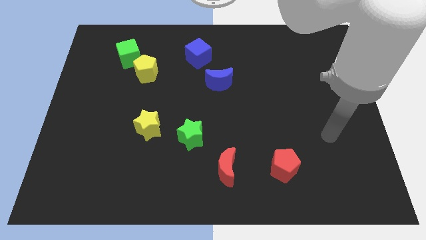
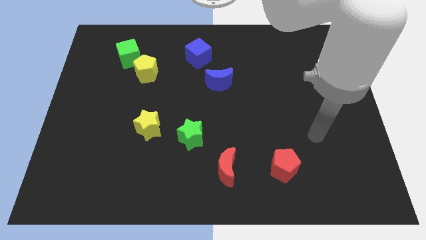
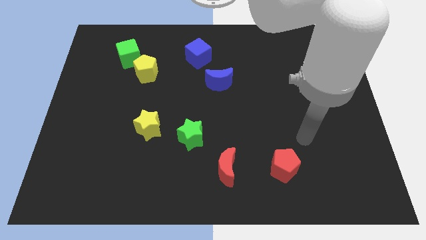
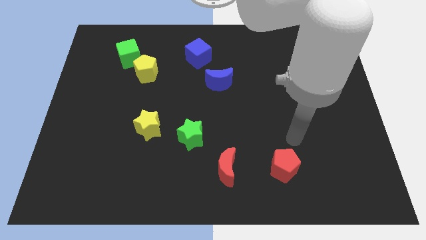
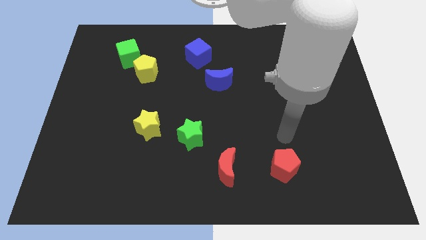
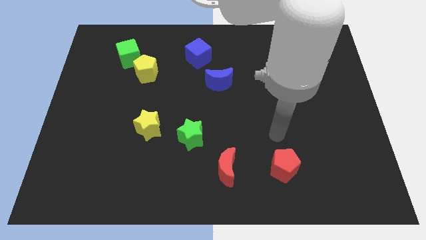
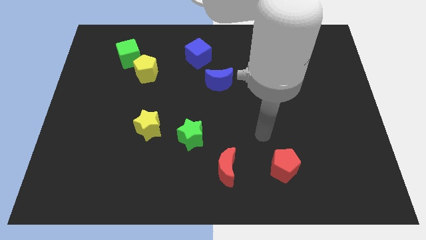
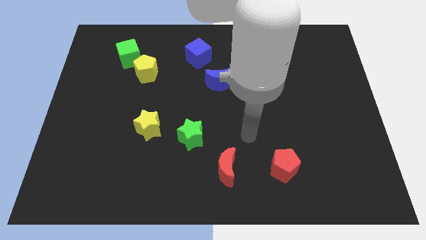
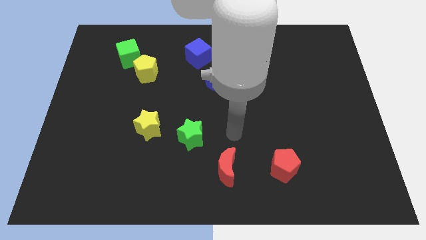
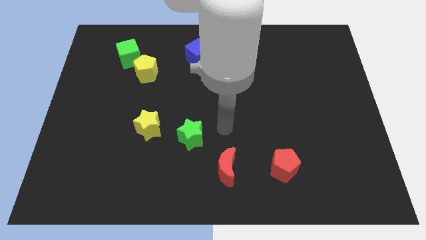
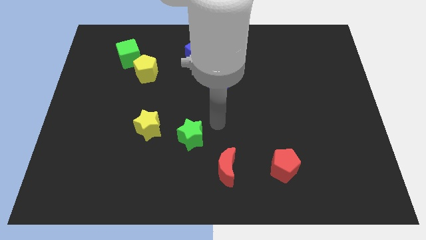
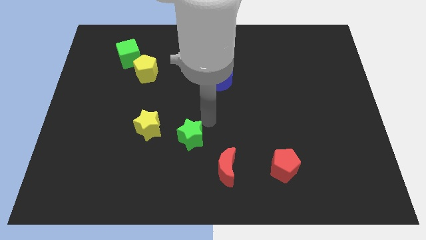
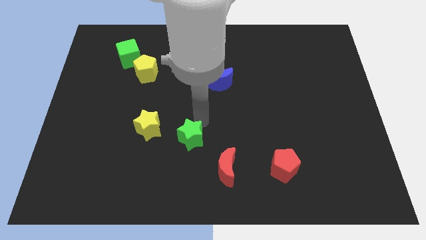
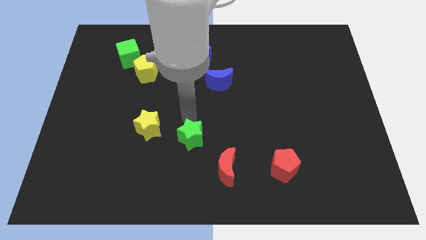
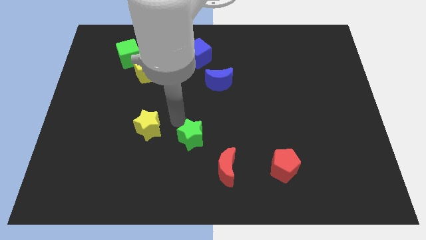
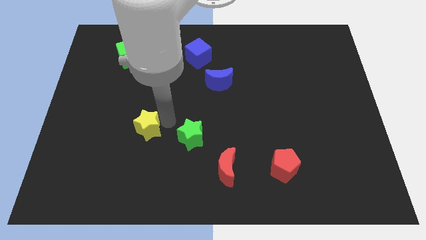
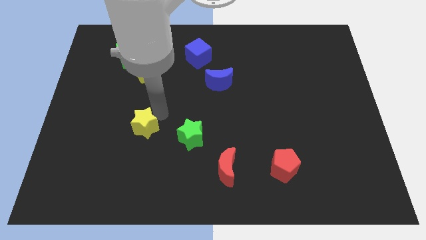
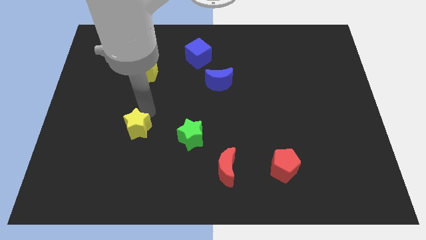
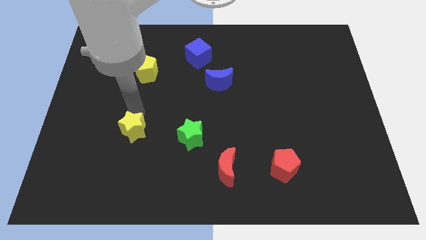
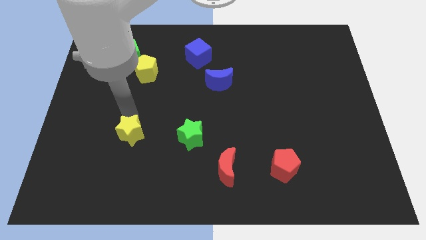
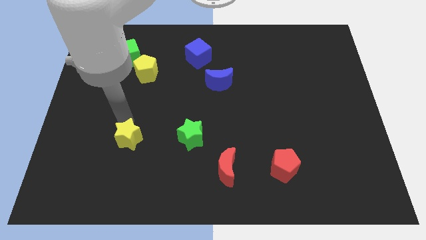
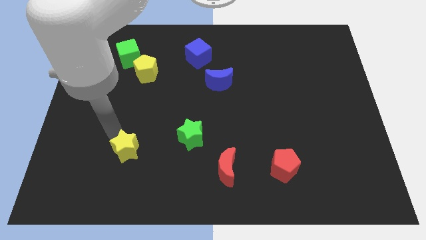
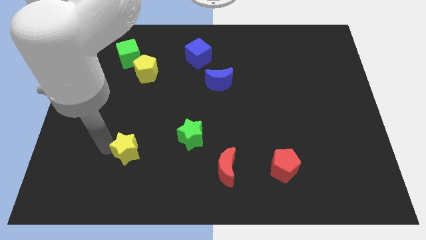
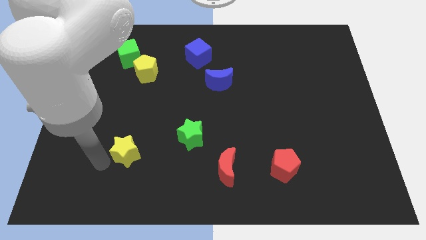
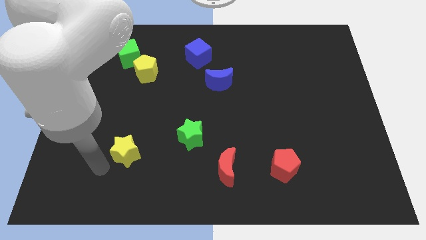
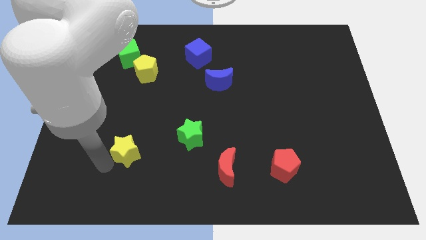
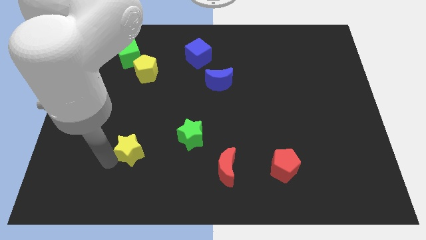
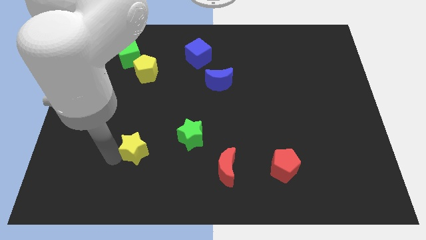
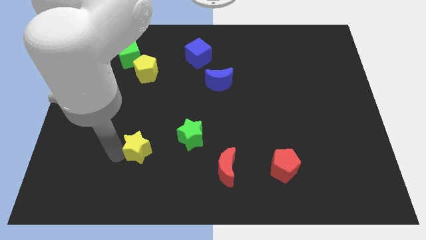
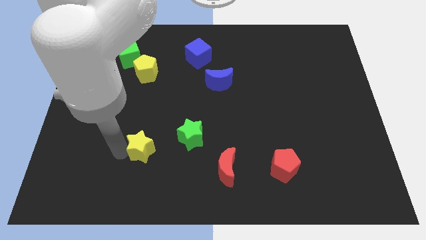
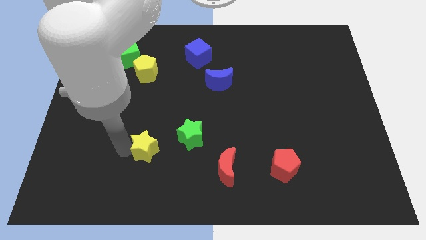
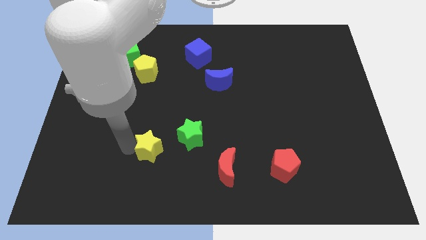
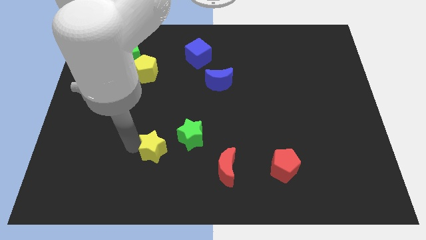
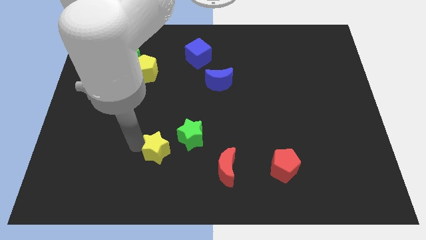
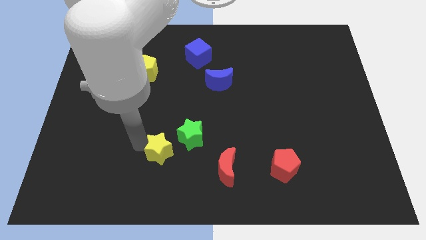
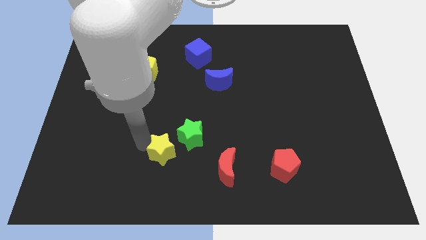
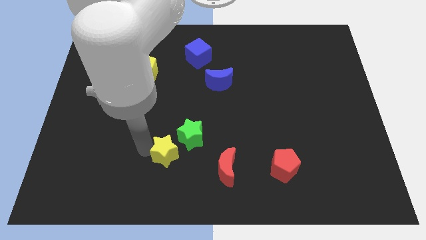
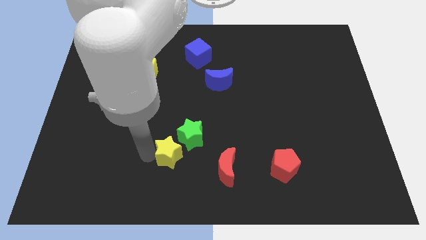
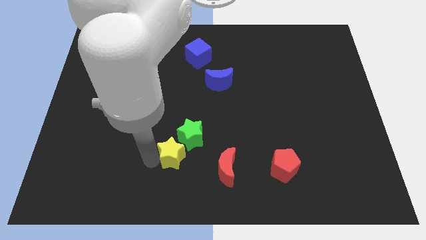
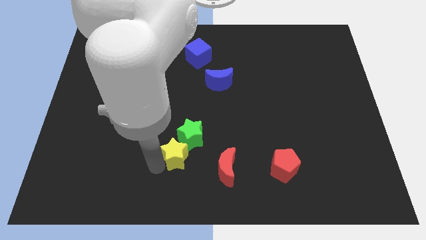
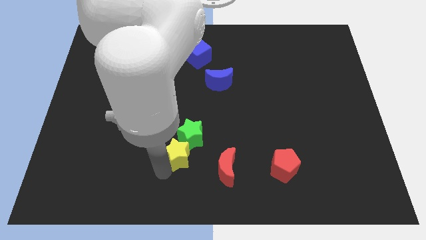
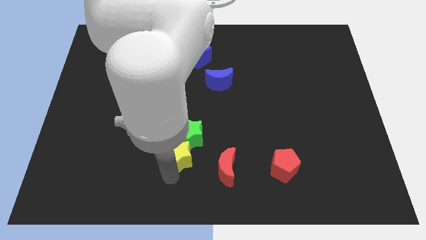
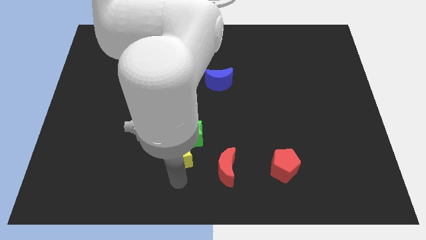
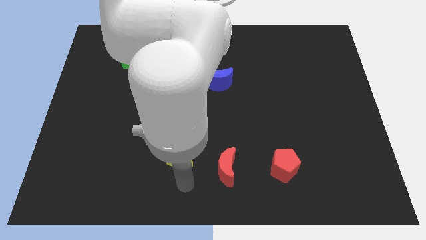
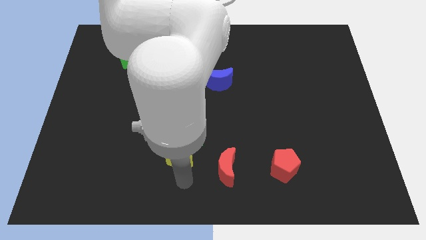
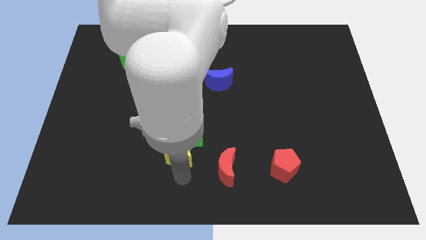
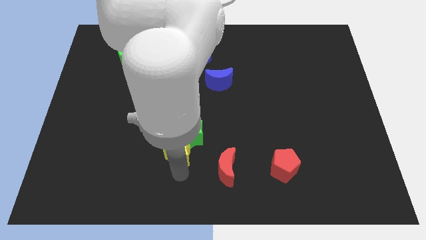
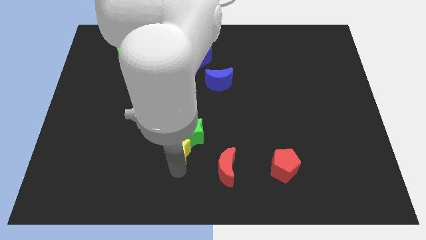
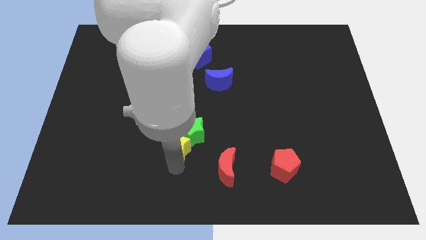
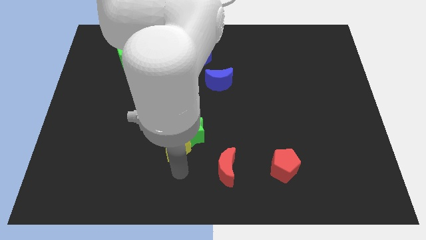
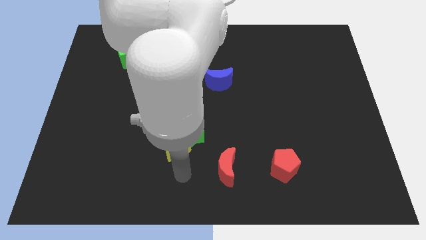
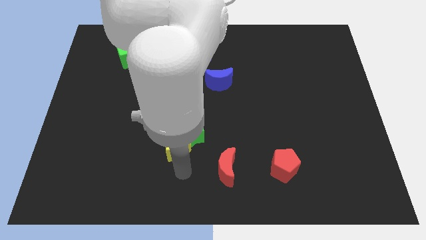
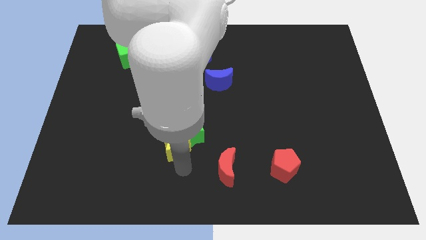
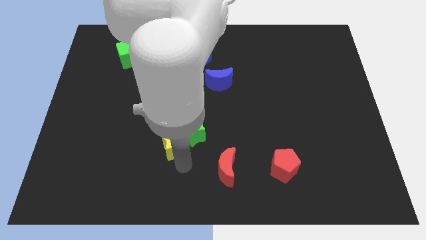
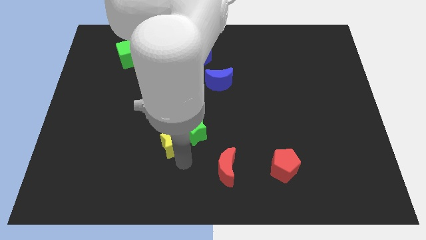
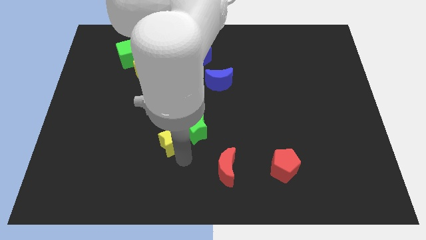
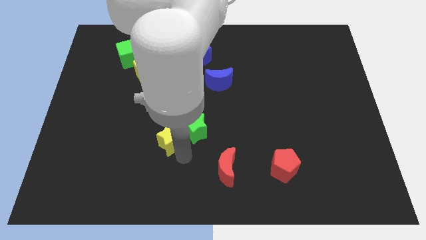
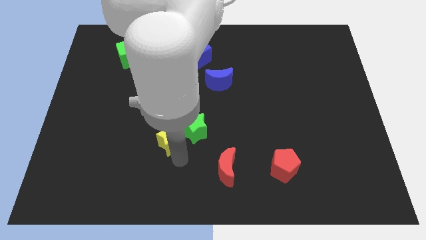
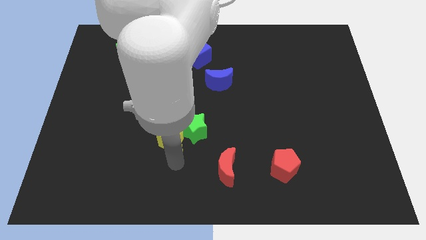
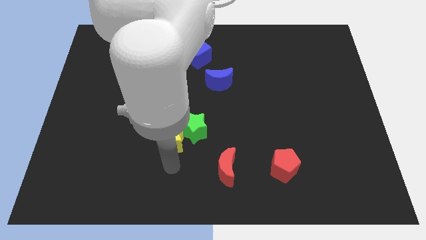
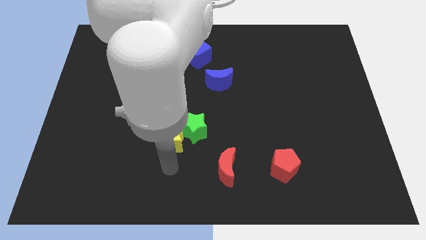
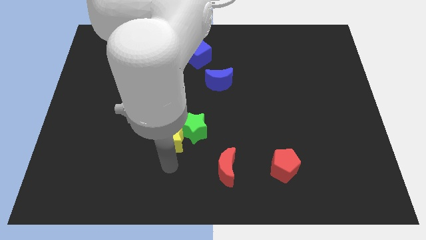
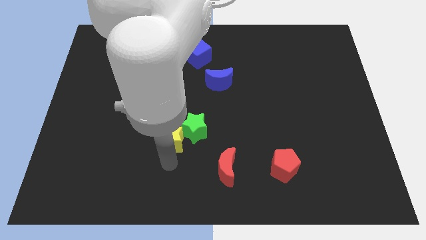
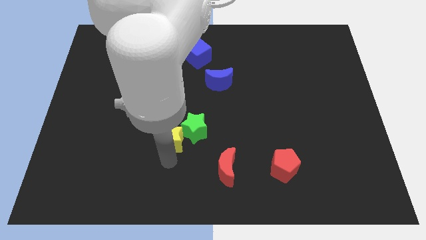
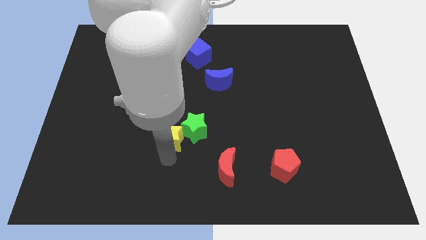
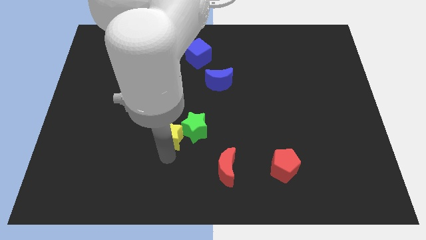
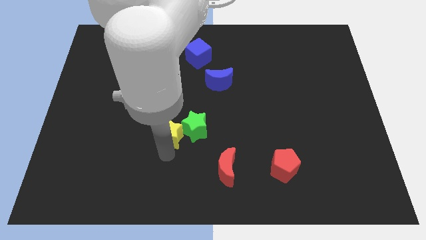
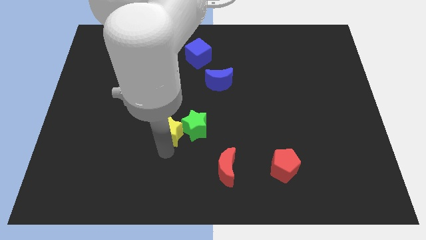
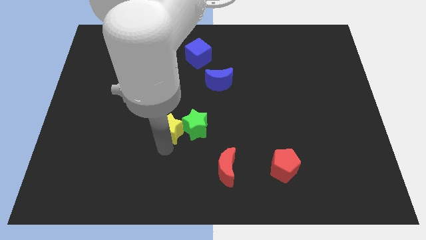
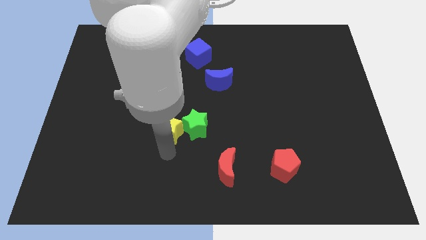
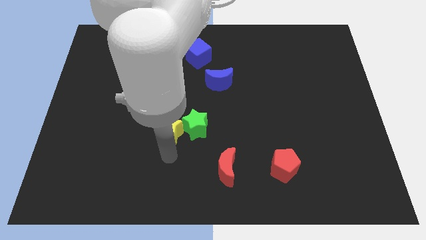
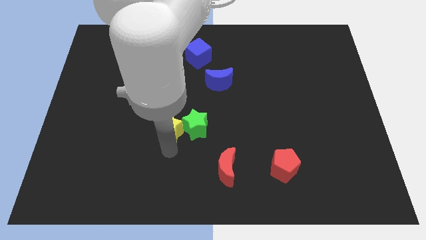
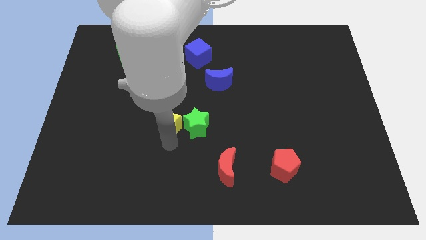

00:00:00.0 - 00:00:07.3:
slide the yellow star to the middle

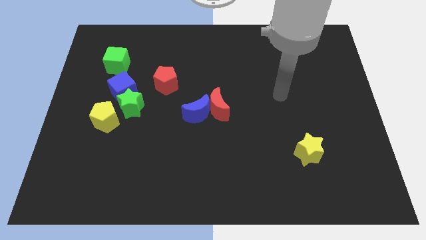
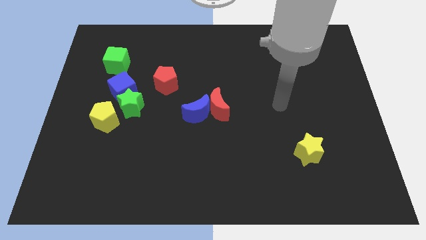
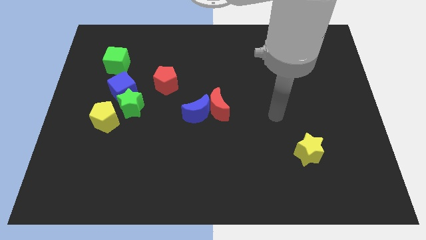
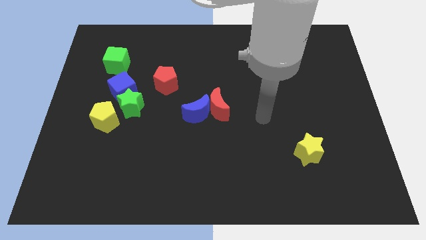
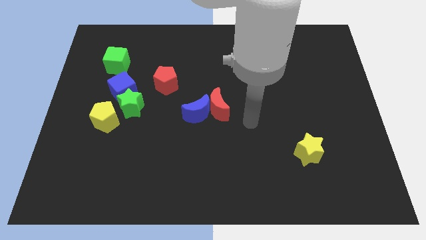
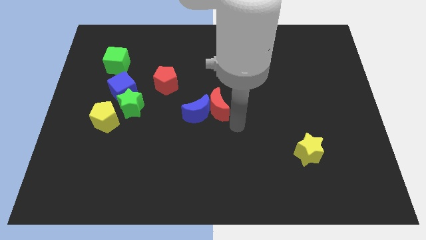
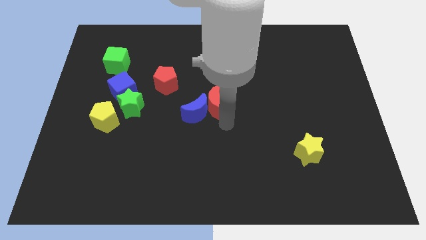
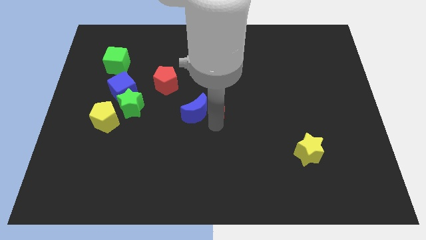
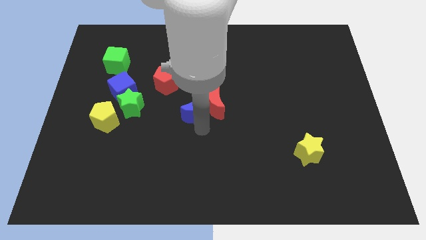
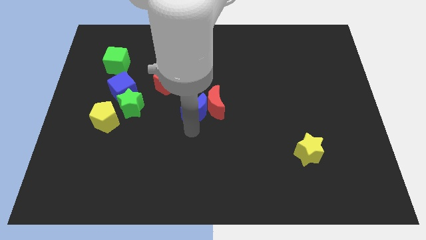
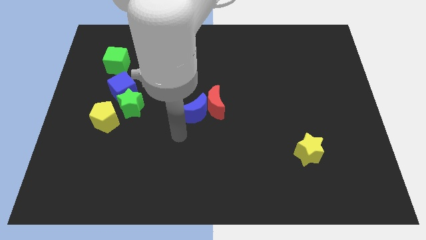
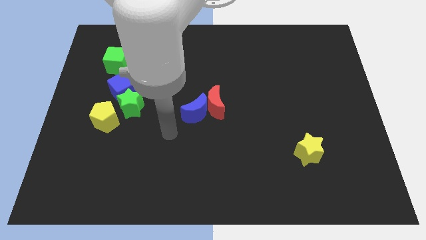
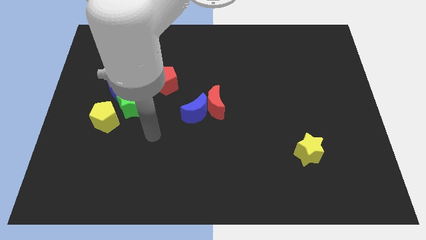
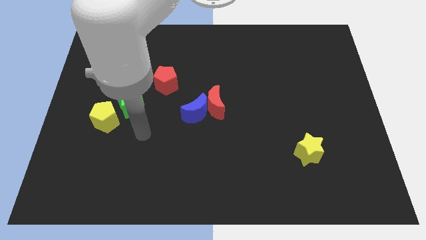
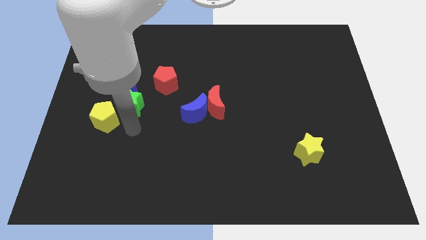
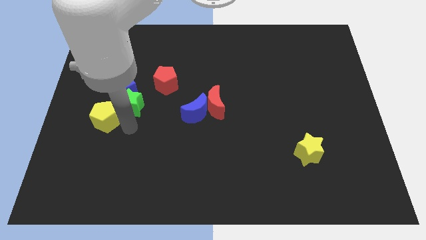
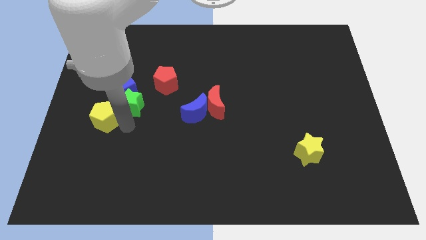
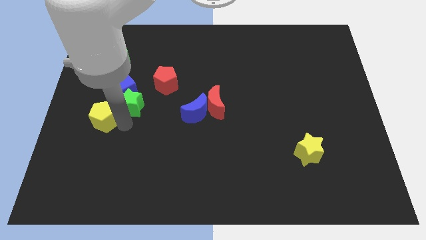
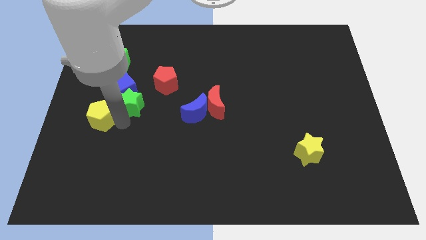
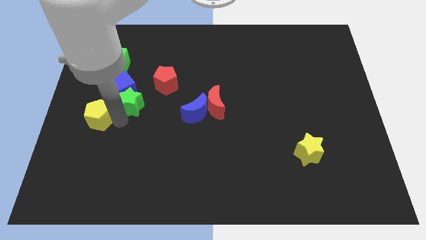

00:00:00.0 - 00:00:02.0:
slide the yellow pentagon to the center left
